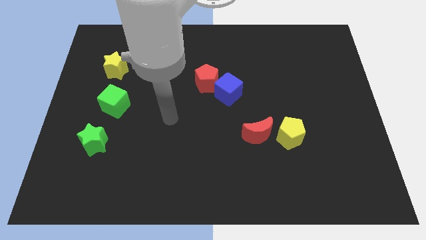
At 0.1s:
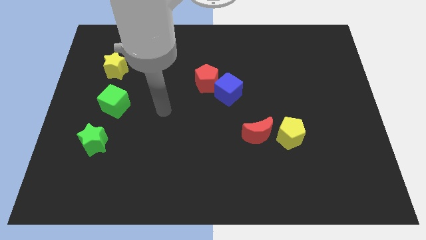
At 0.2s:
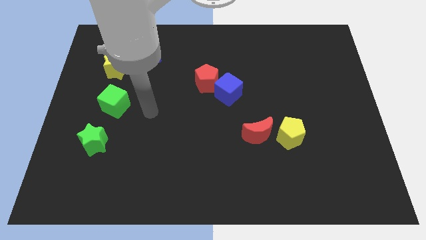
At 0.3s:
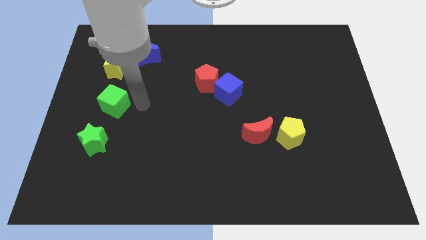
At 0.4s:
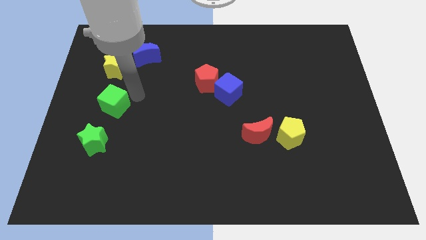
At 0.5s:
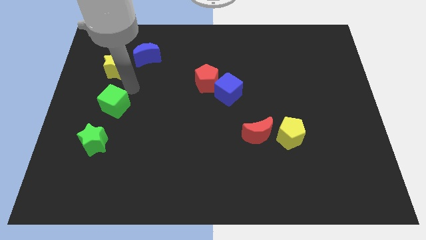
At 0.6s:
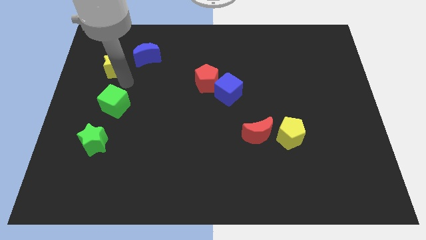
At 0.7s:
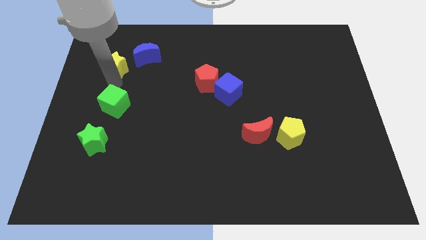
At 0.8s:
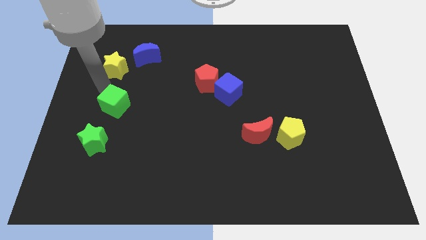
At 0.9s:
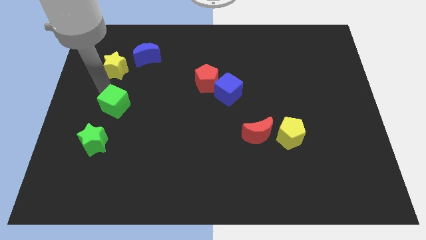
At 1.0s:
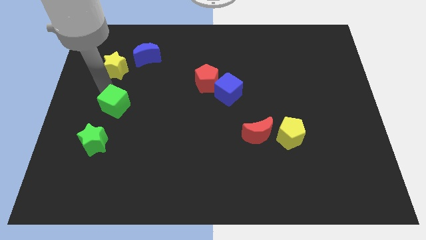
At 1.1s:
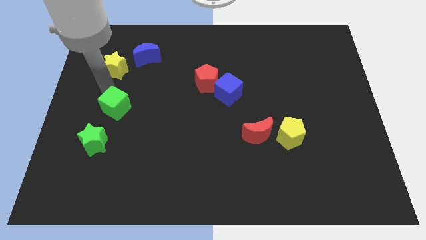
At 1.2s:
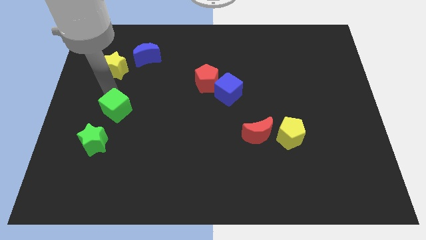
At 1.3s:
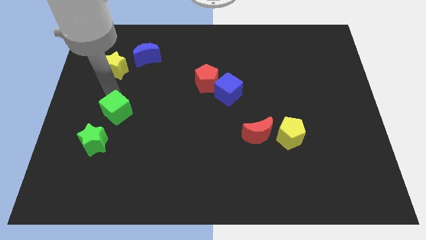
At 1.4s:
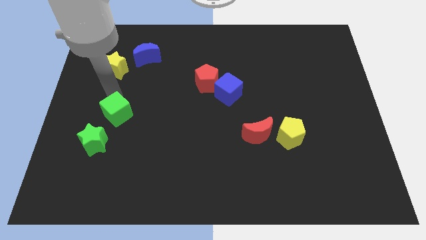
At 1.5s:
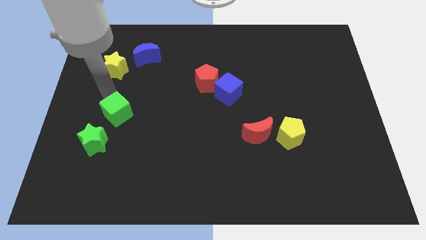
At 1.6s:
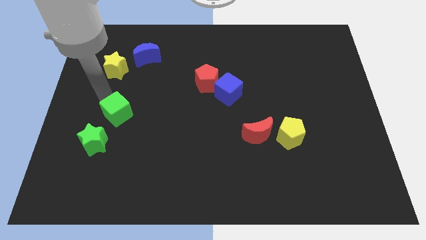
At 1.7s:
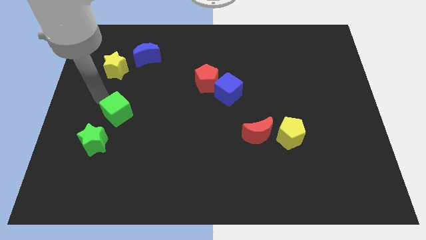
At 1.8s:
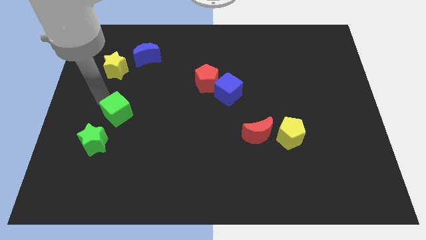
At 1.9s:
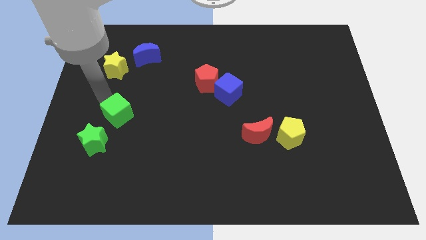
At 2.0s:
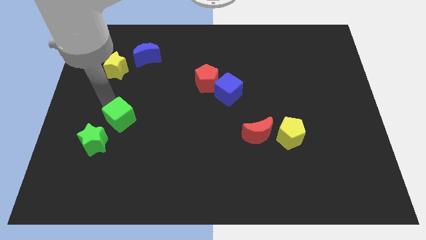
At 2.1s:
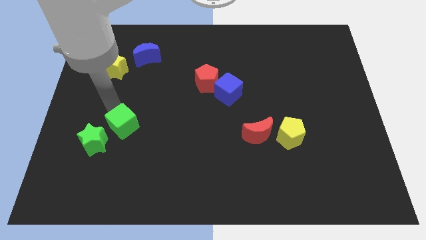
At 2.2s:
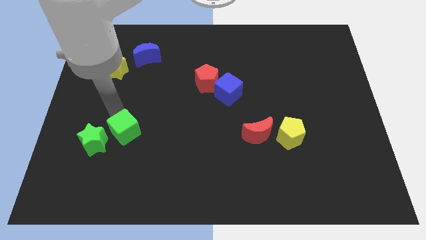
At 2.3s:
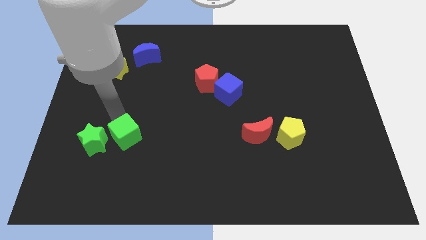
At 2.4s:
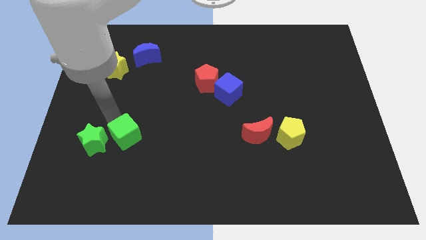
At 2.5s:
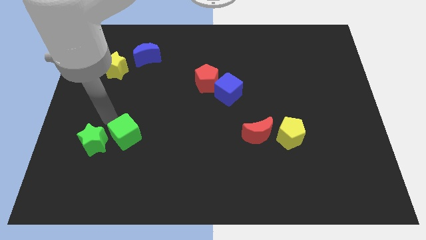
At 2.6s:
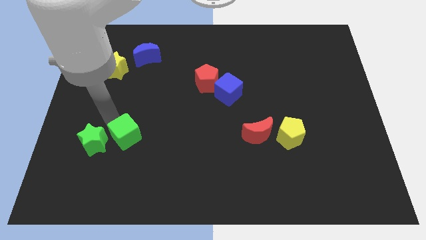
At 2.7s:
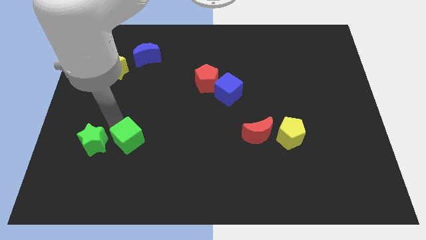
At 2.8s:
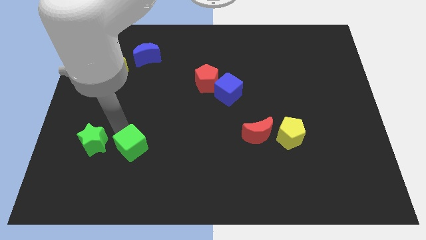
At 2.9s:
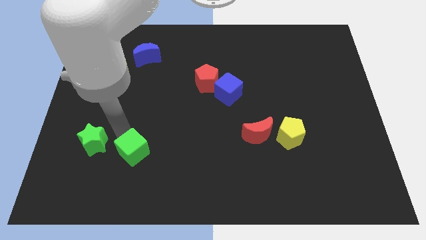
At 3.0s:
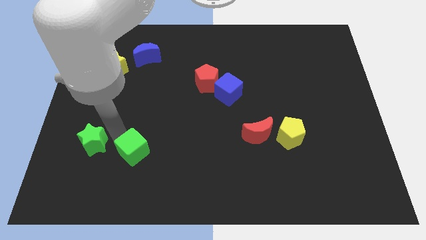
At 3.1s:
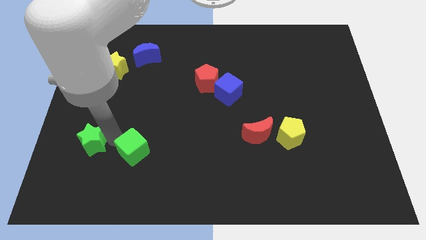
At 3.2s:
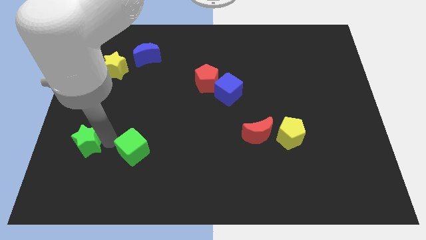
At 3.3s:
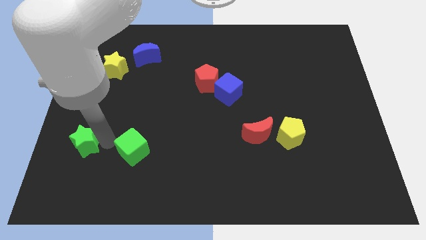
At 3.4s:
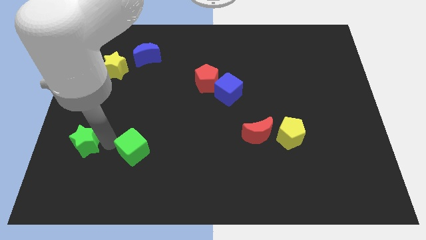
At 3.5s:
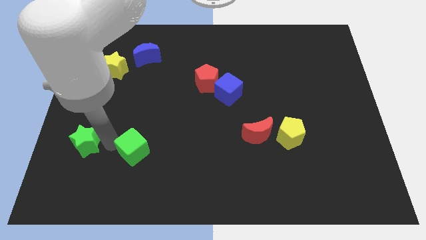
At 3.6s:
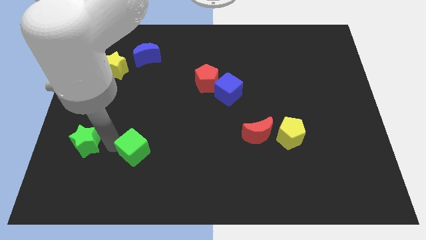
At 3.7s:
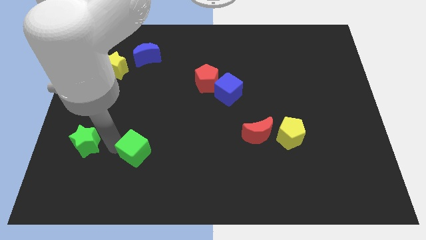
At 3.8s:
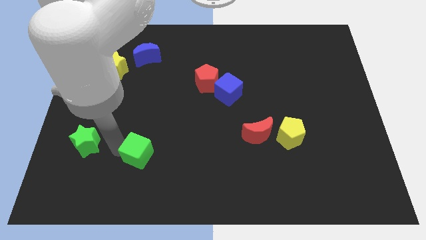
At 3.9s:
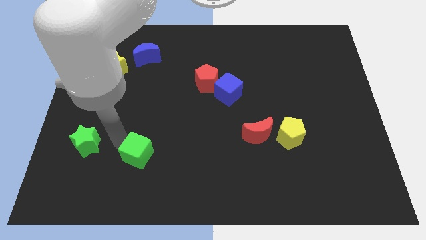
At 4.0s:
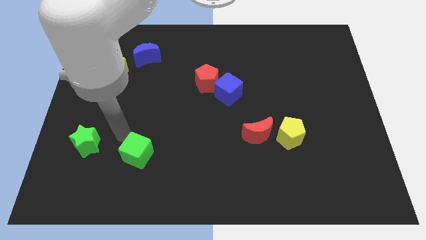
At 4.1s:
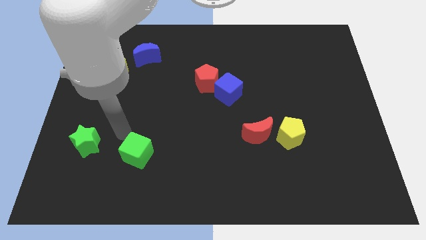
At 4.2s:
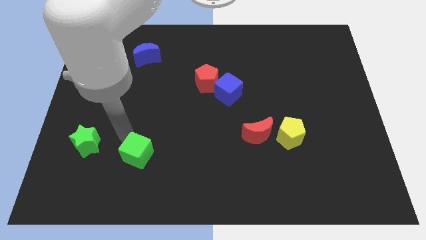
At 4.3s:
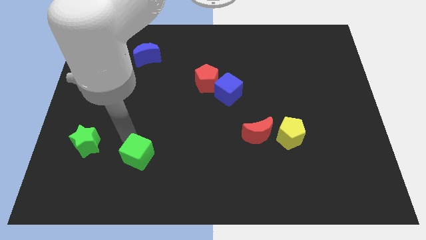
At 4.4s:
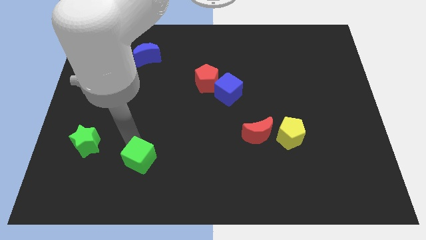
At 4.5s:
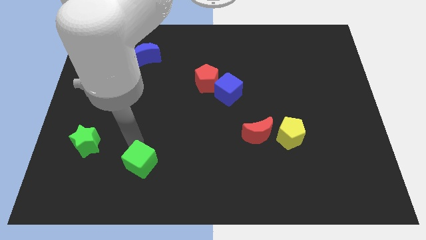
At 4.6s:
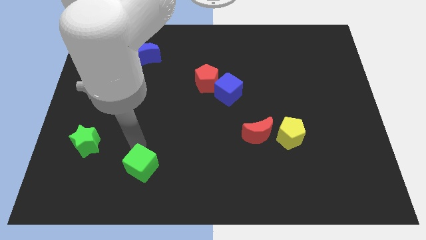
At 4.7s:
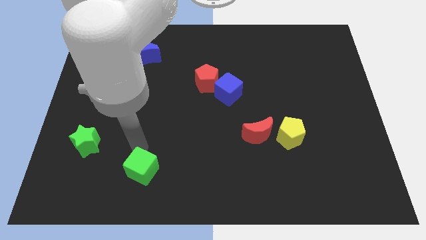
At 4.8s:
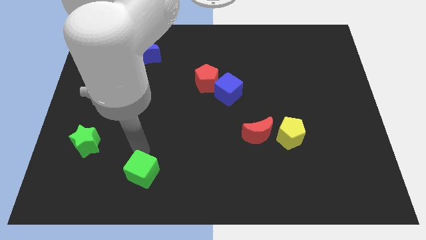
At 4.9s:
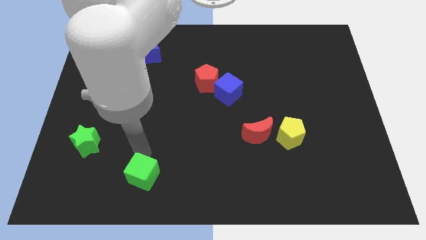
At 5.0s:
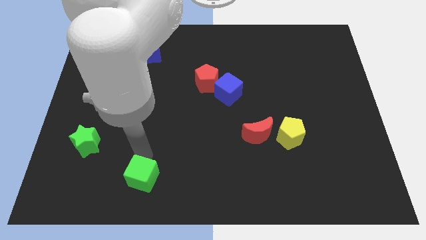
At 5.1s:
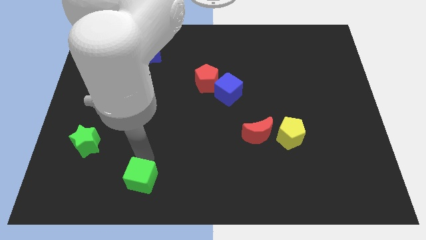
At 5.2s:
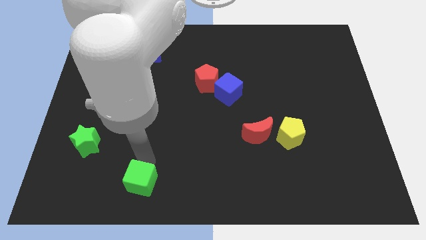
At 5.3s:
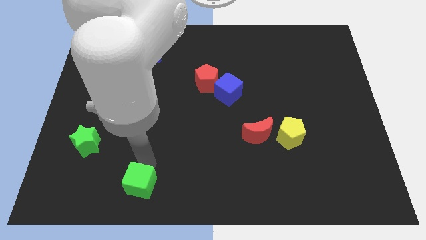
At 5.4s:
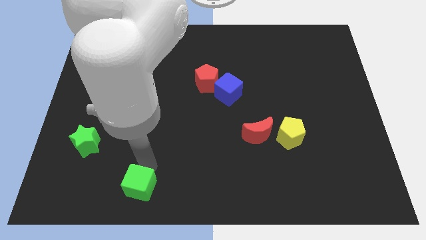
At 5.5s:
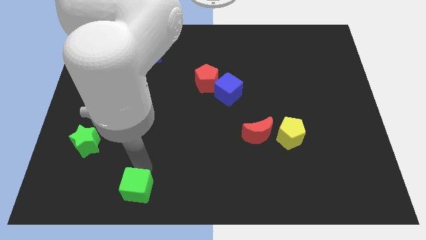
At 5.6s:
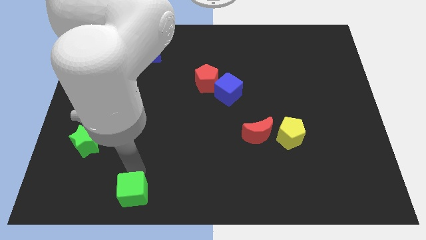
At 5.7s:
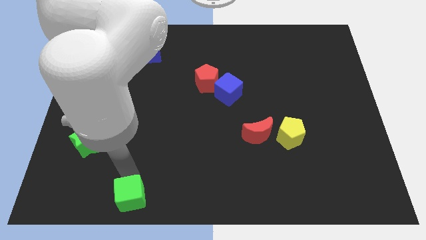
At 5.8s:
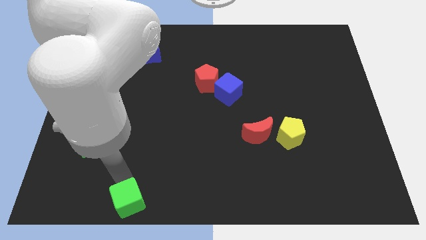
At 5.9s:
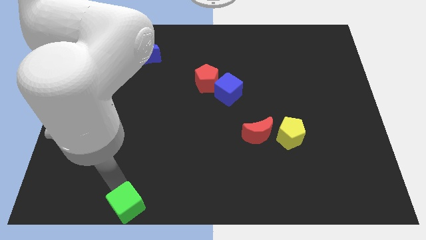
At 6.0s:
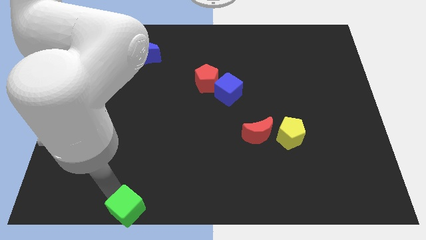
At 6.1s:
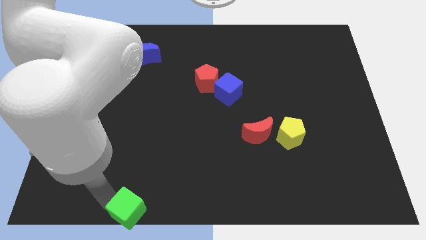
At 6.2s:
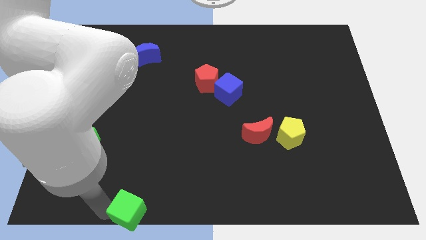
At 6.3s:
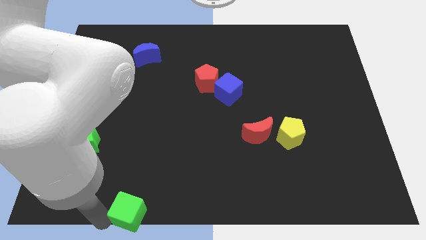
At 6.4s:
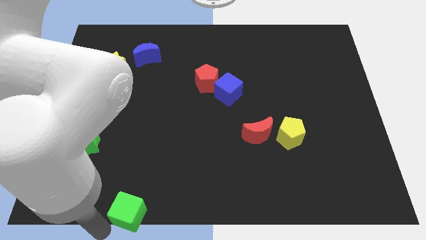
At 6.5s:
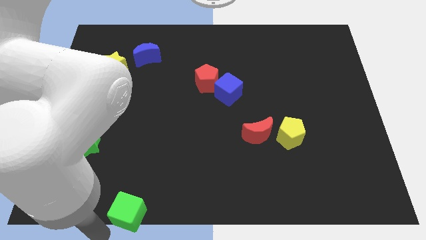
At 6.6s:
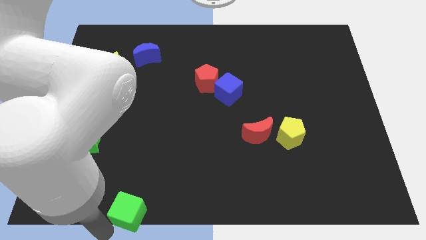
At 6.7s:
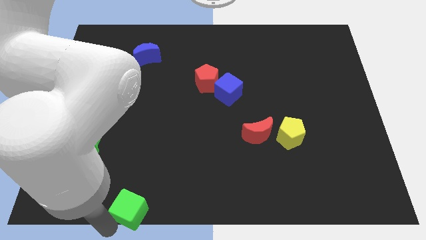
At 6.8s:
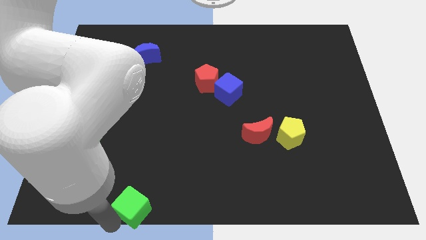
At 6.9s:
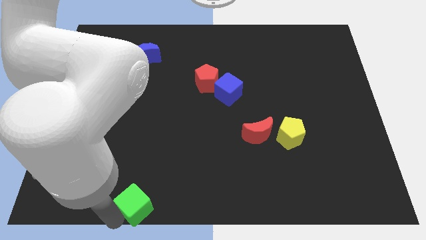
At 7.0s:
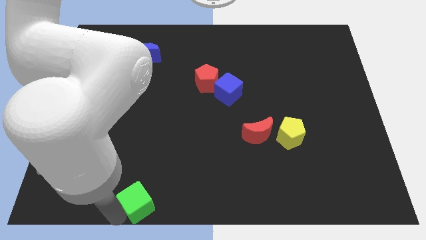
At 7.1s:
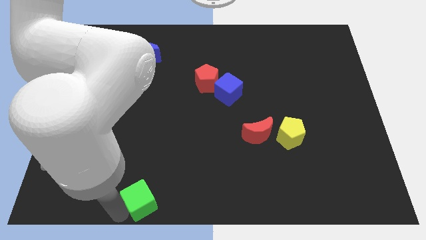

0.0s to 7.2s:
put the green cube to the bottom side
